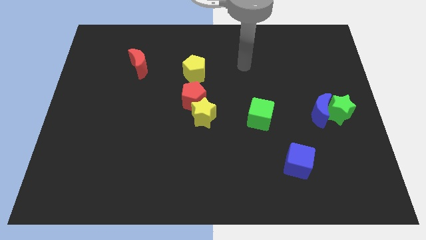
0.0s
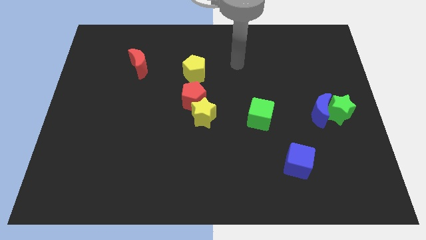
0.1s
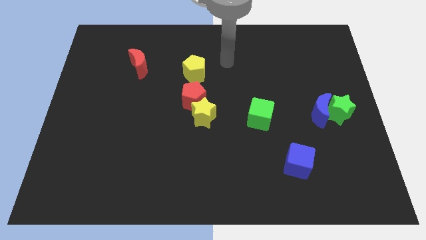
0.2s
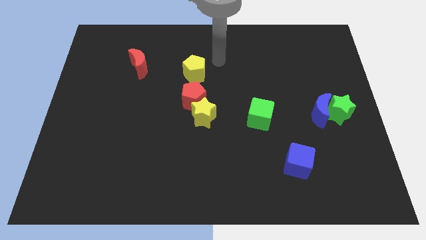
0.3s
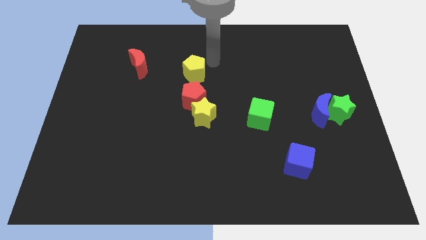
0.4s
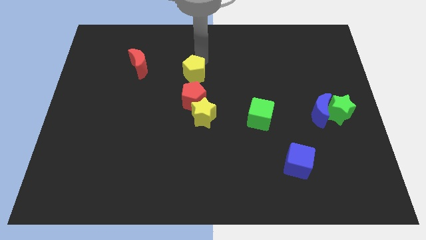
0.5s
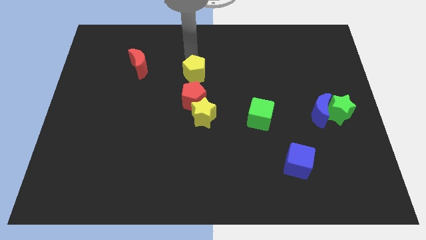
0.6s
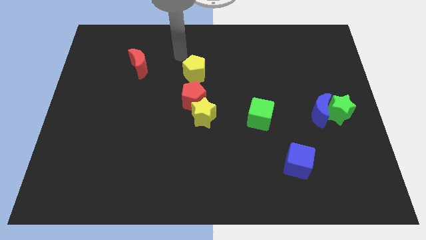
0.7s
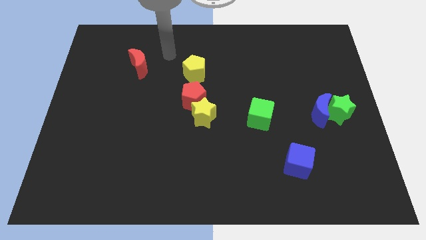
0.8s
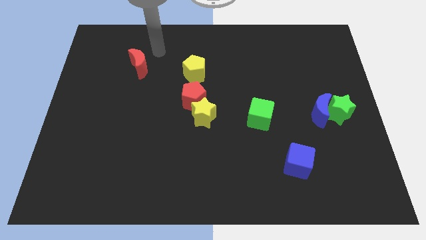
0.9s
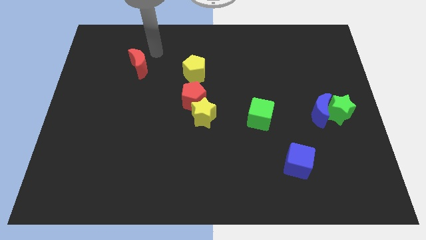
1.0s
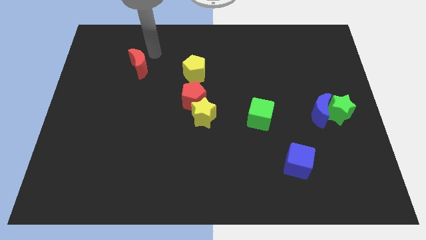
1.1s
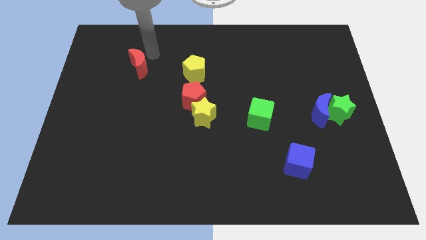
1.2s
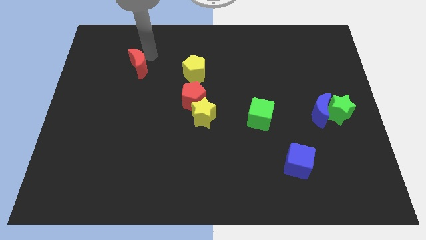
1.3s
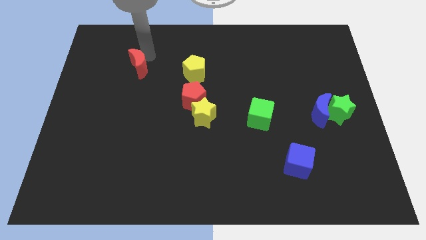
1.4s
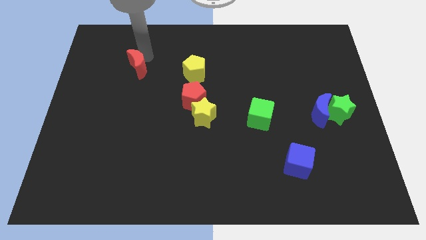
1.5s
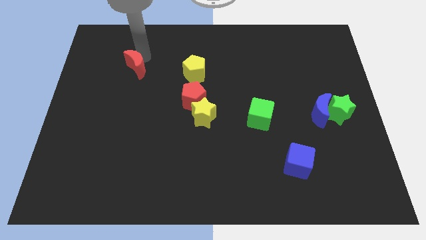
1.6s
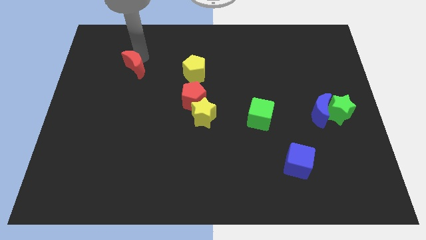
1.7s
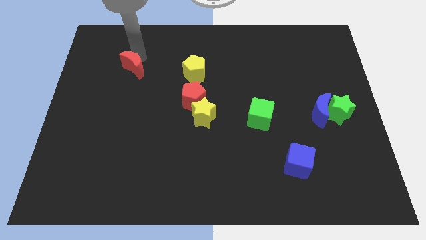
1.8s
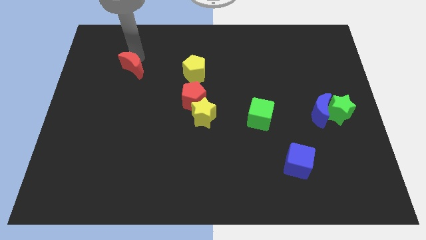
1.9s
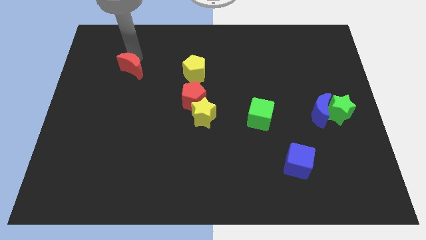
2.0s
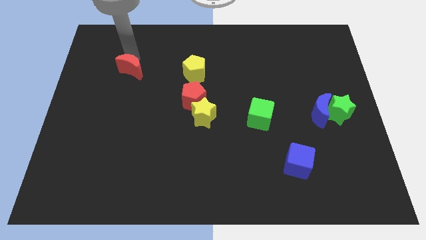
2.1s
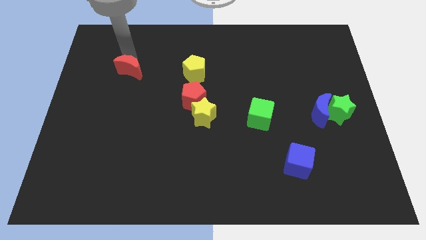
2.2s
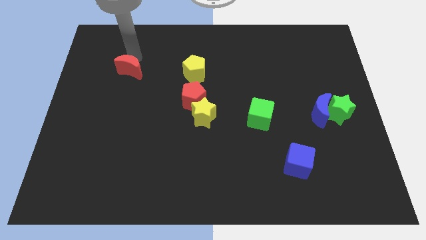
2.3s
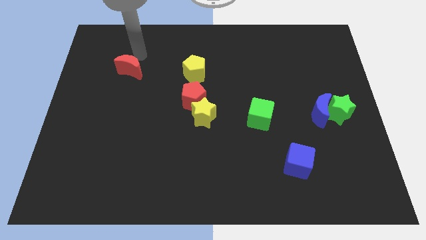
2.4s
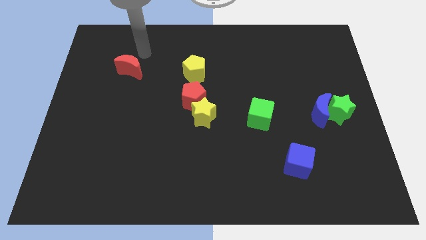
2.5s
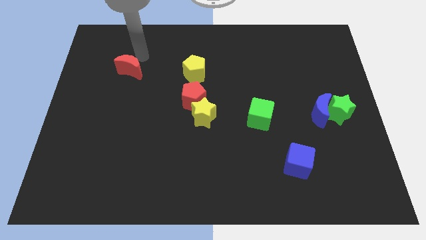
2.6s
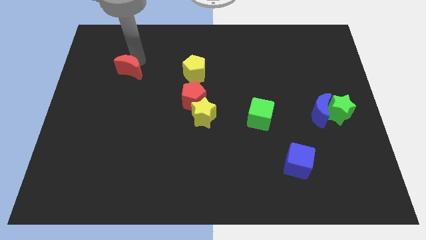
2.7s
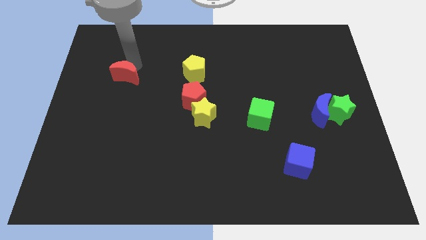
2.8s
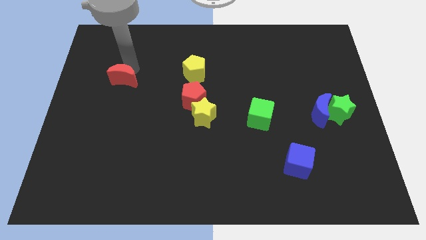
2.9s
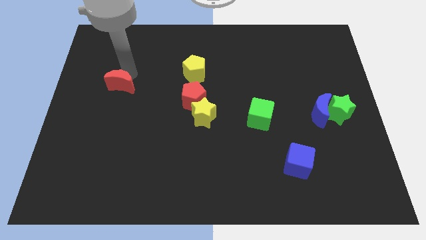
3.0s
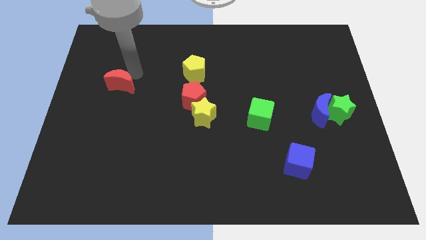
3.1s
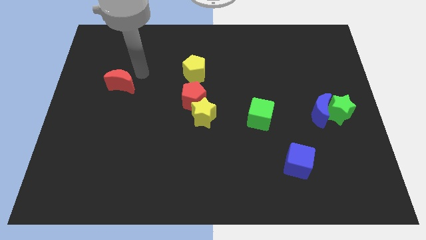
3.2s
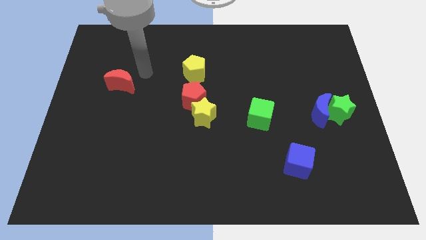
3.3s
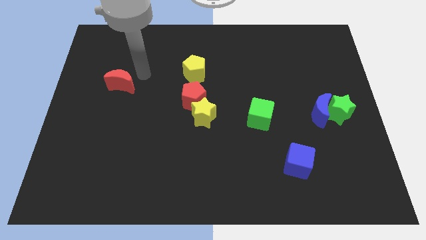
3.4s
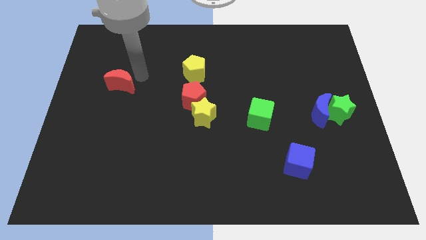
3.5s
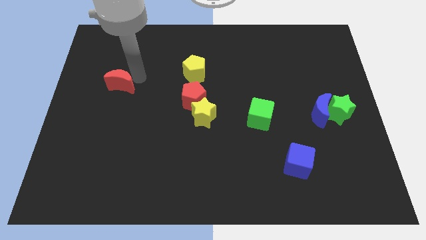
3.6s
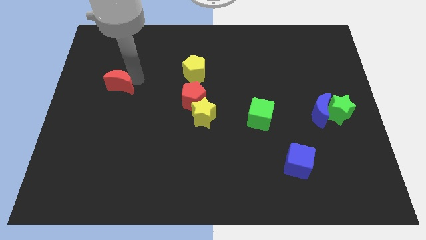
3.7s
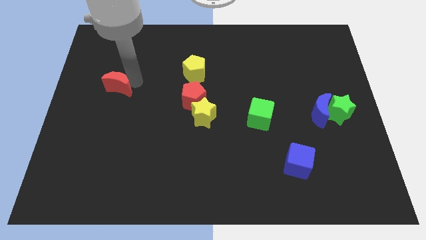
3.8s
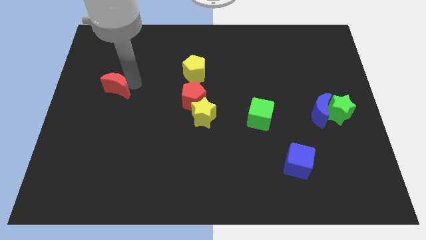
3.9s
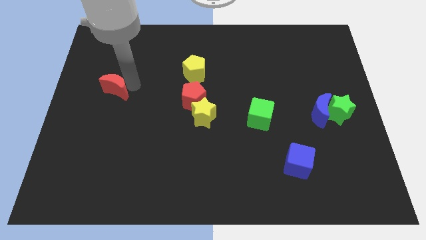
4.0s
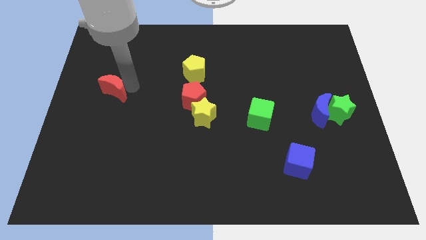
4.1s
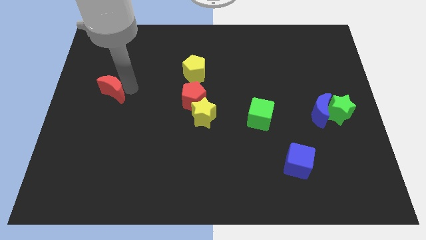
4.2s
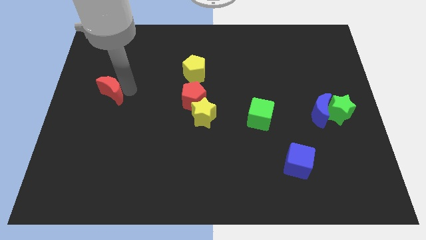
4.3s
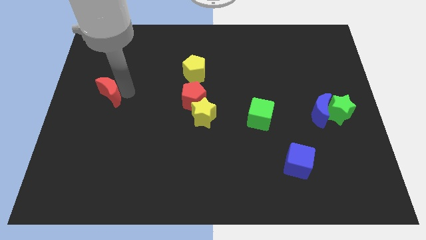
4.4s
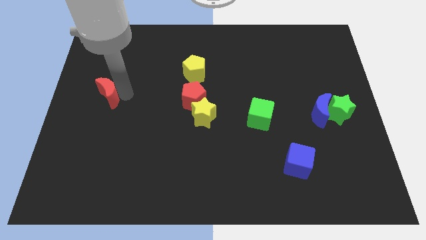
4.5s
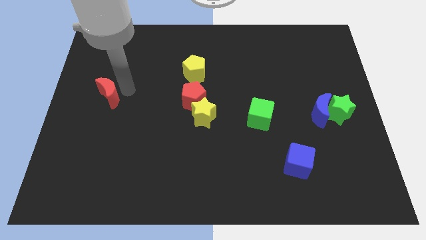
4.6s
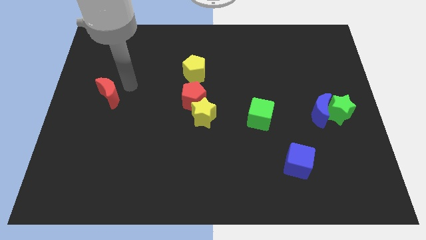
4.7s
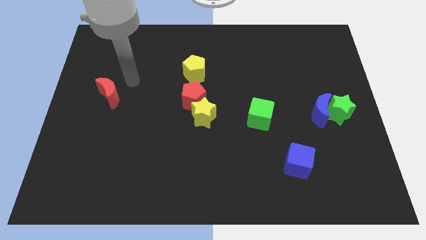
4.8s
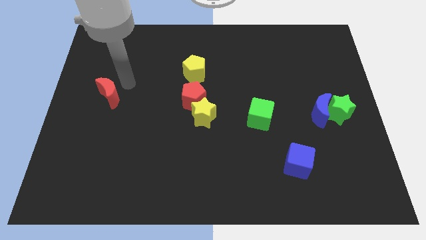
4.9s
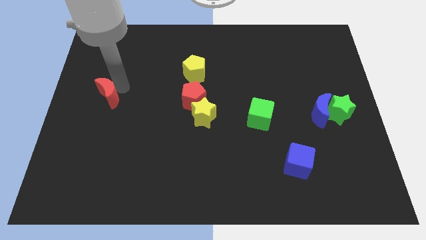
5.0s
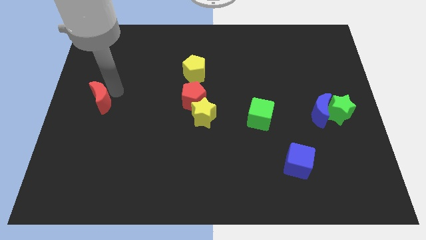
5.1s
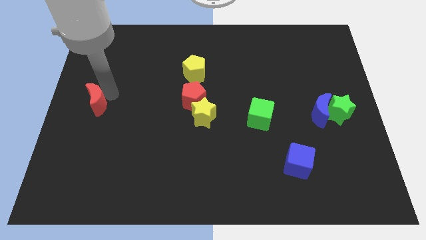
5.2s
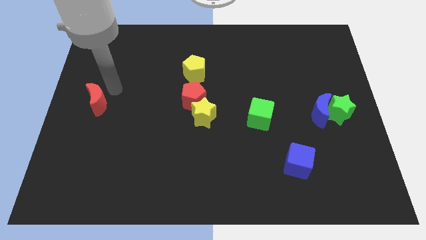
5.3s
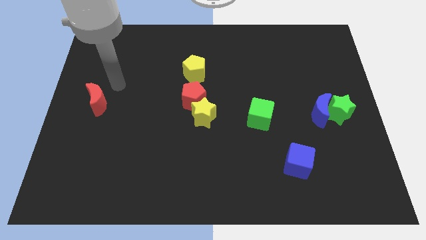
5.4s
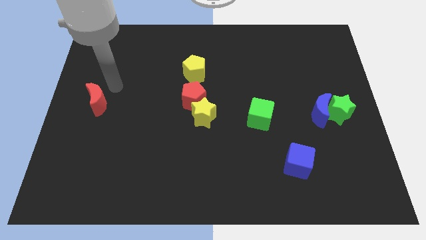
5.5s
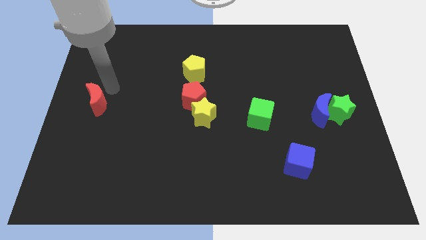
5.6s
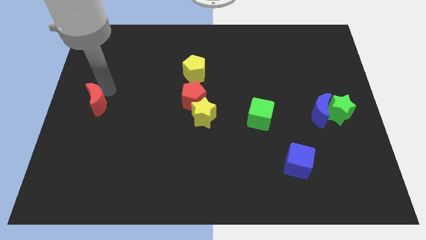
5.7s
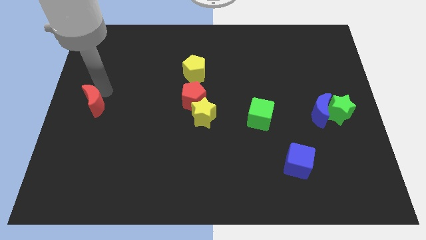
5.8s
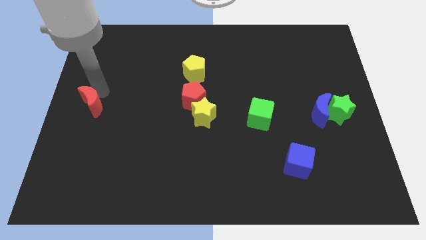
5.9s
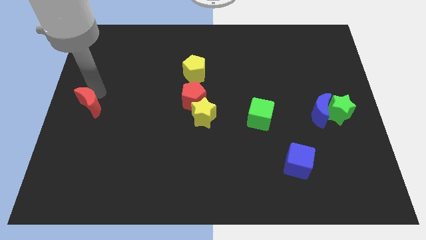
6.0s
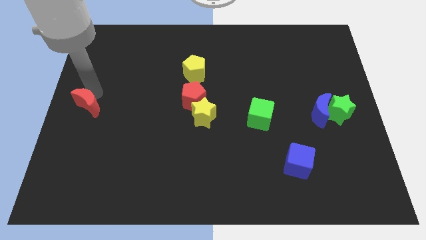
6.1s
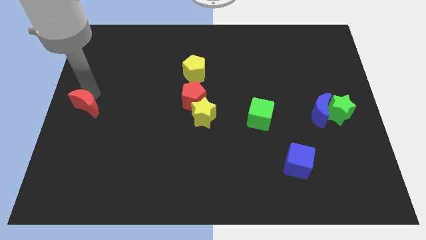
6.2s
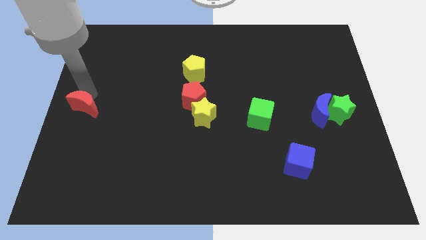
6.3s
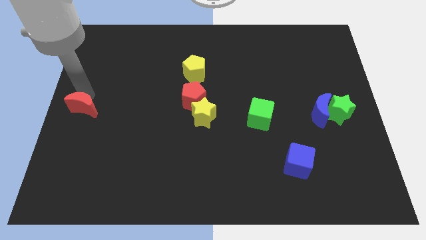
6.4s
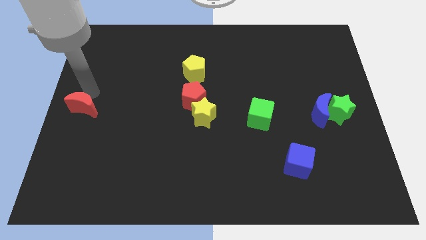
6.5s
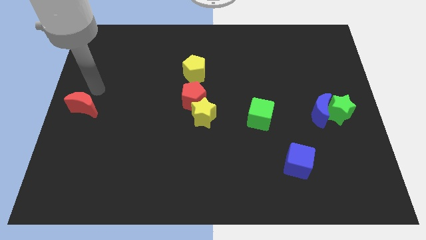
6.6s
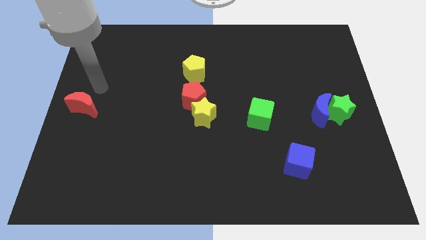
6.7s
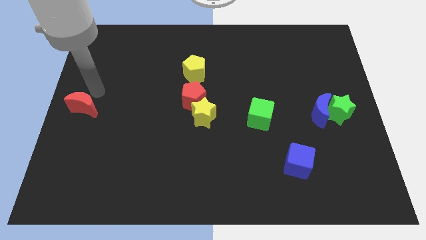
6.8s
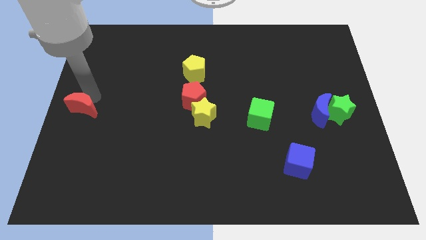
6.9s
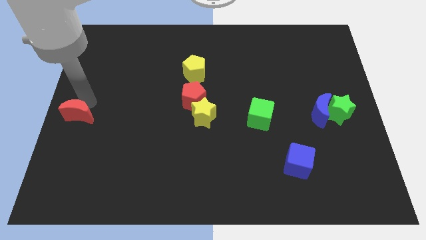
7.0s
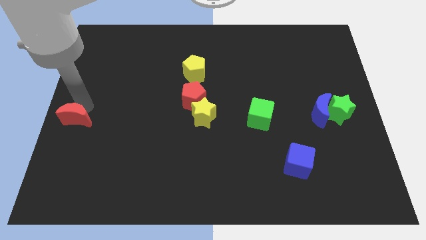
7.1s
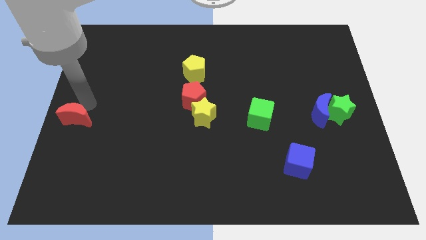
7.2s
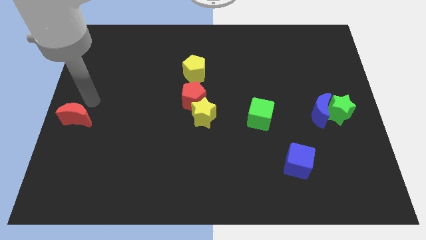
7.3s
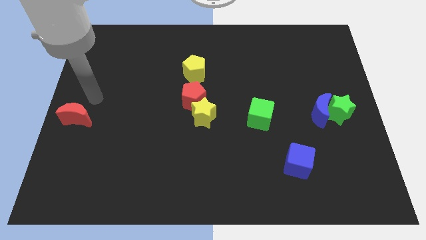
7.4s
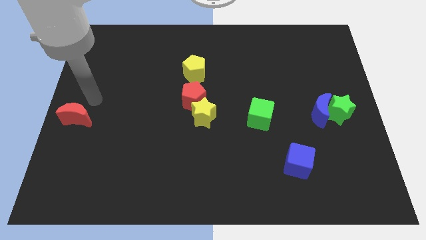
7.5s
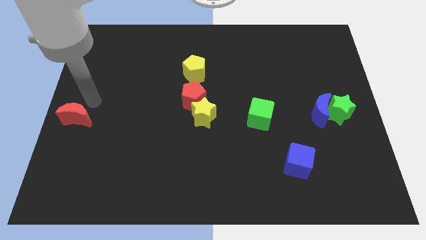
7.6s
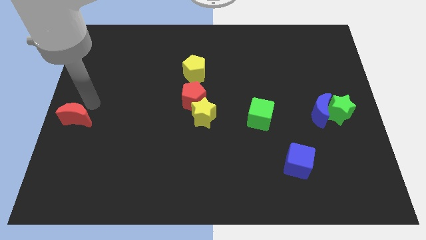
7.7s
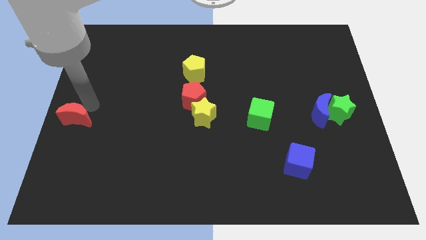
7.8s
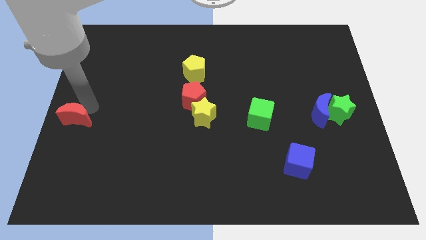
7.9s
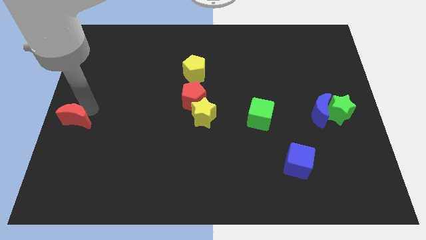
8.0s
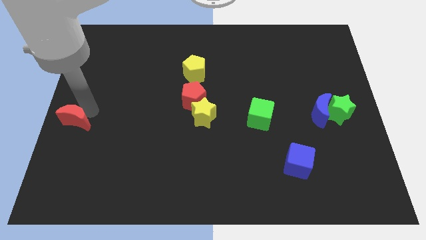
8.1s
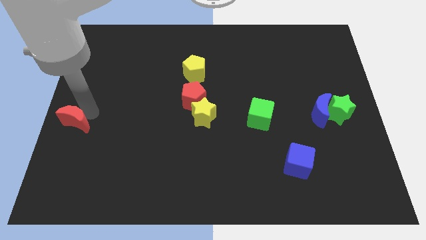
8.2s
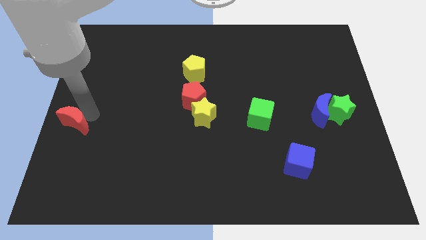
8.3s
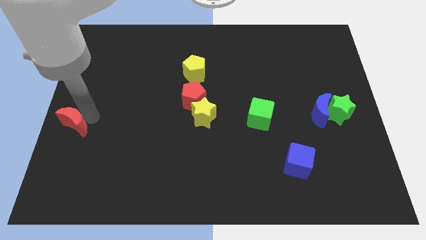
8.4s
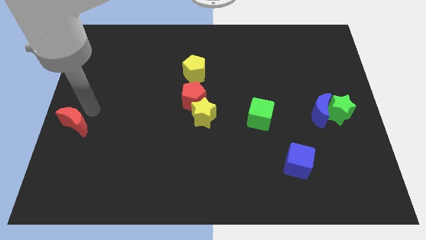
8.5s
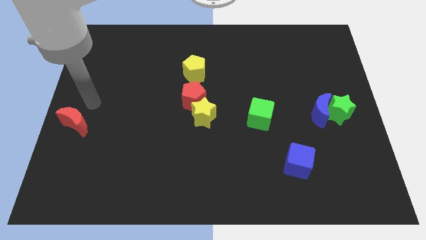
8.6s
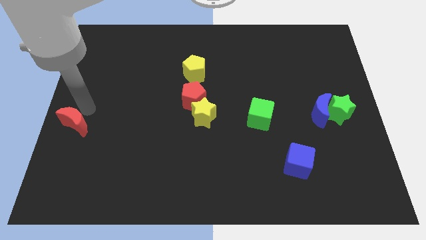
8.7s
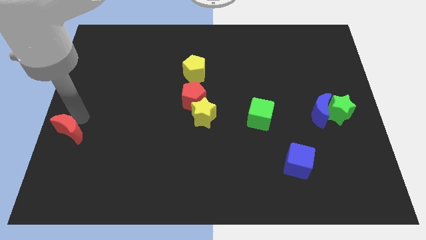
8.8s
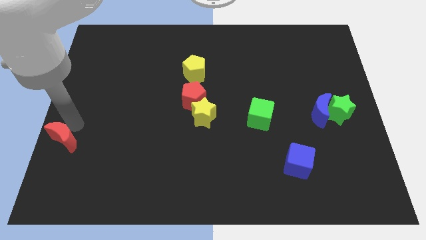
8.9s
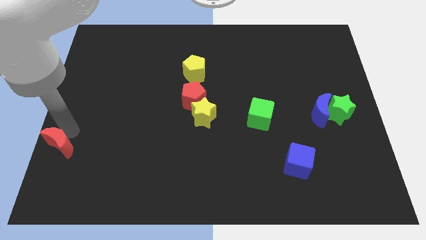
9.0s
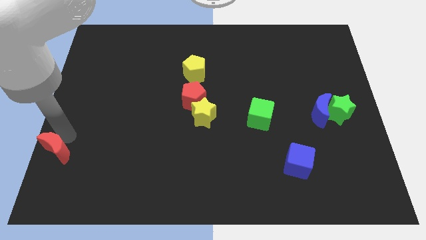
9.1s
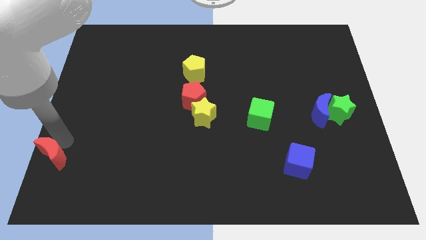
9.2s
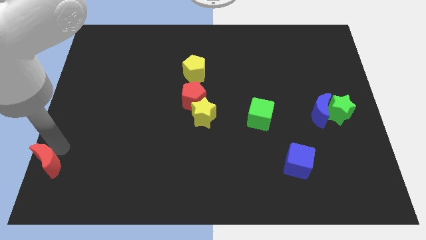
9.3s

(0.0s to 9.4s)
slide the red moon to the bottom left corner
